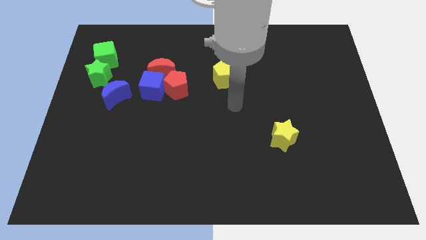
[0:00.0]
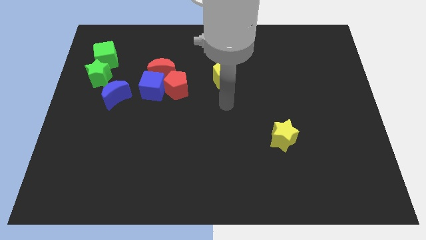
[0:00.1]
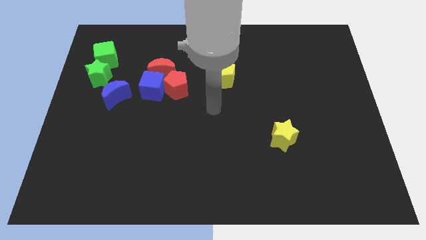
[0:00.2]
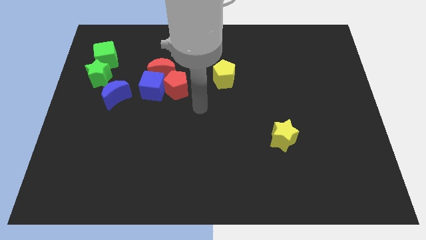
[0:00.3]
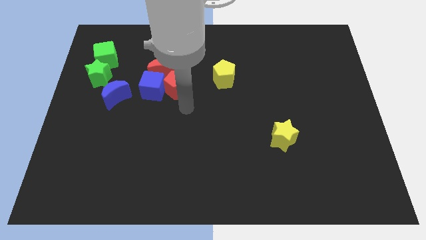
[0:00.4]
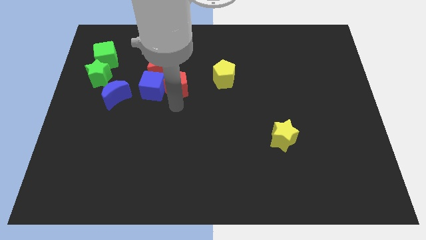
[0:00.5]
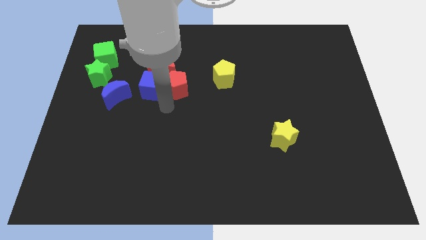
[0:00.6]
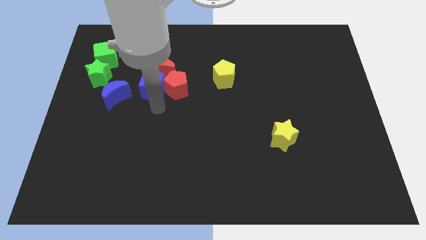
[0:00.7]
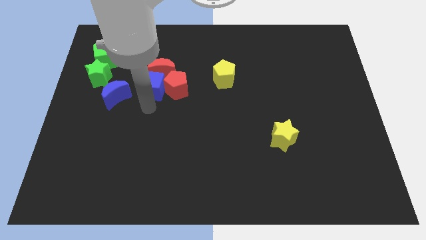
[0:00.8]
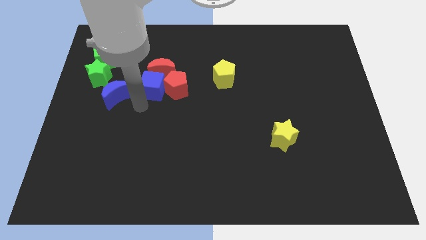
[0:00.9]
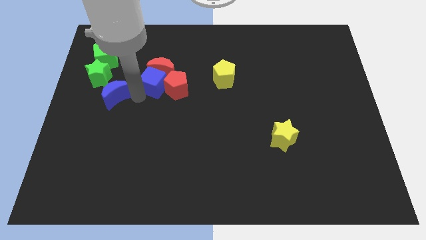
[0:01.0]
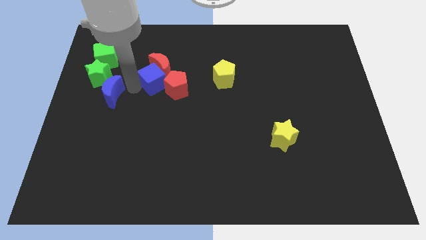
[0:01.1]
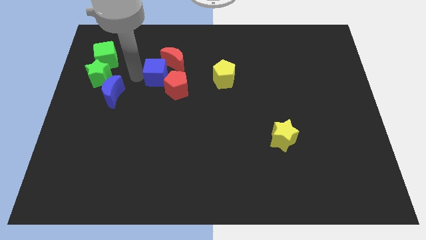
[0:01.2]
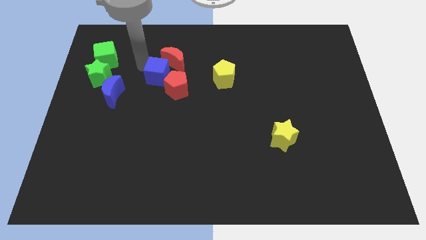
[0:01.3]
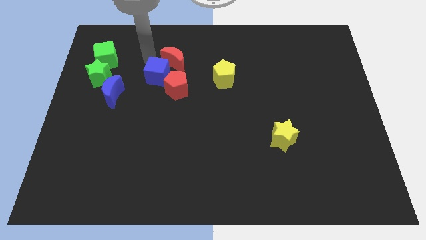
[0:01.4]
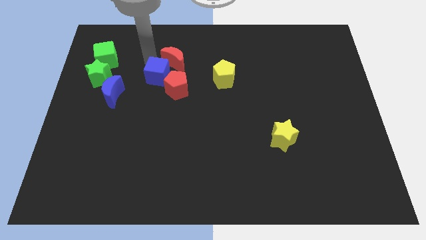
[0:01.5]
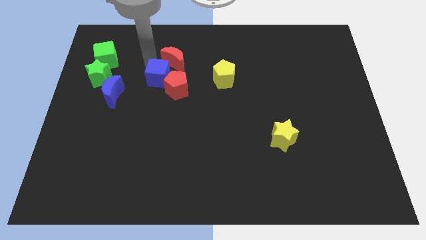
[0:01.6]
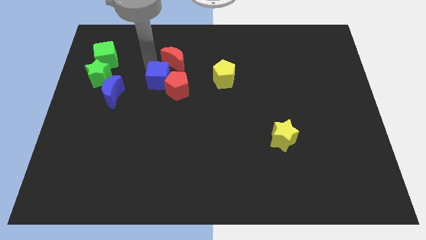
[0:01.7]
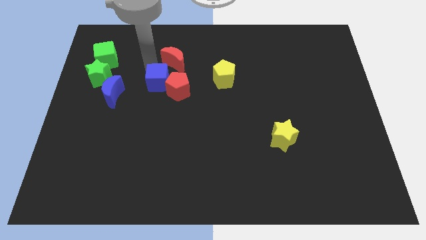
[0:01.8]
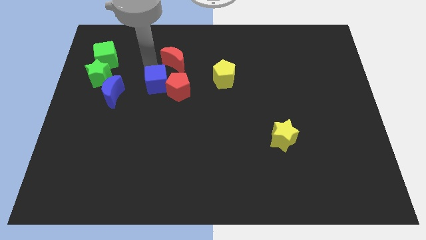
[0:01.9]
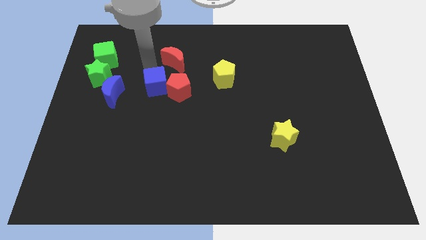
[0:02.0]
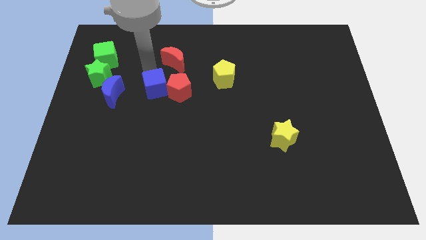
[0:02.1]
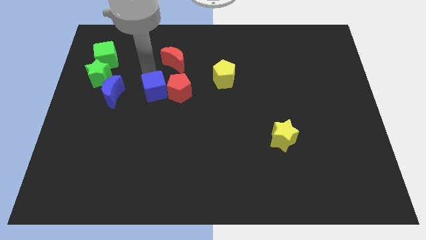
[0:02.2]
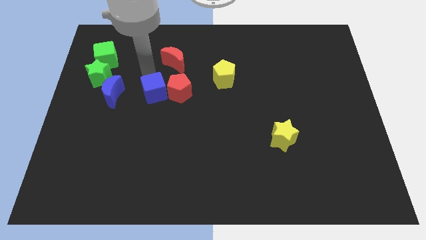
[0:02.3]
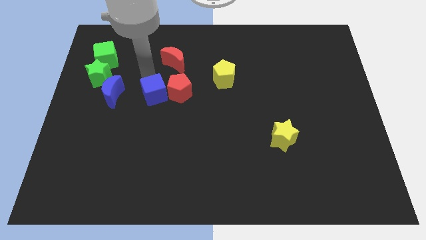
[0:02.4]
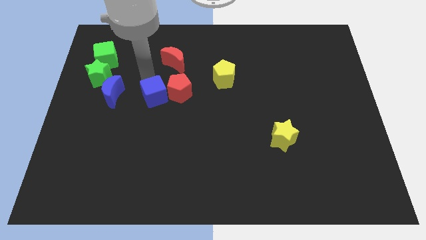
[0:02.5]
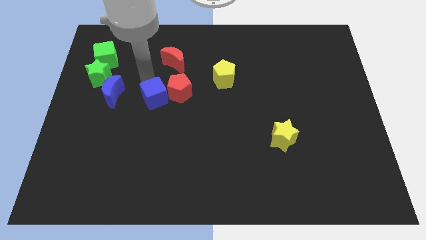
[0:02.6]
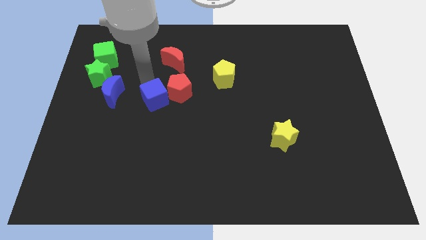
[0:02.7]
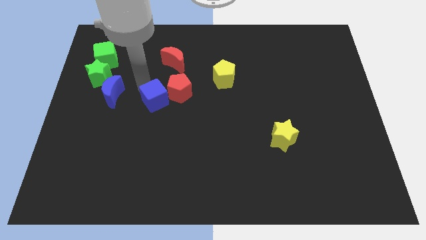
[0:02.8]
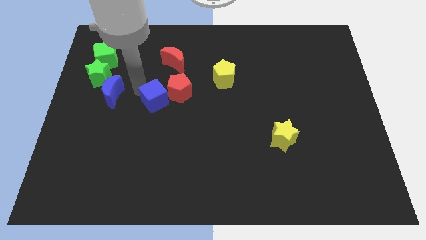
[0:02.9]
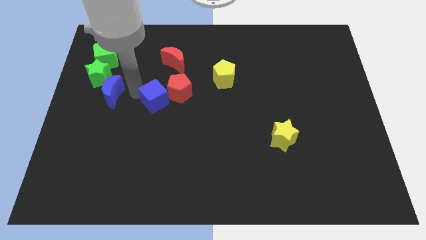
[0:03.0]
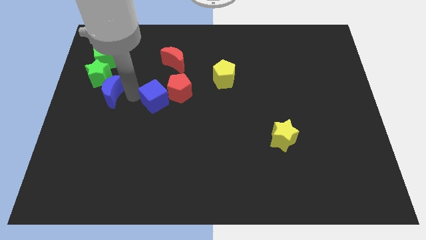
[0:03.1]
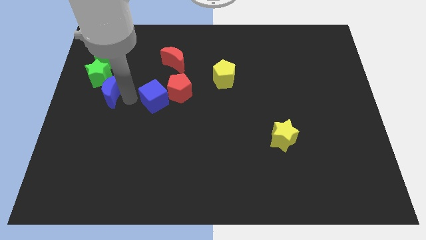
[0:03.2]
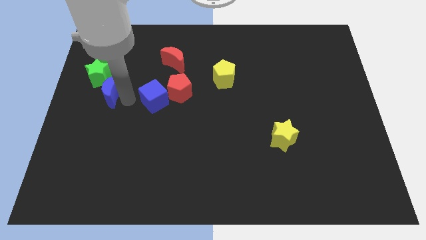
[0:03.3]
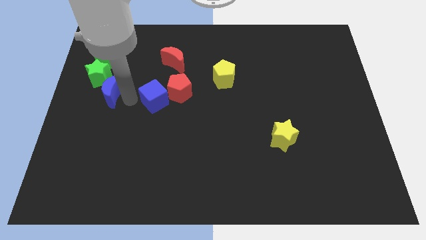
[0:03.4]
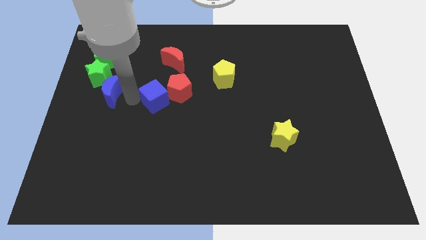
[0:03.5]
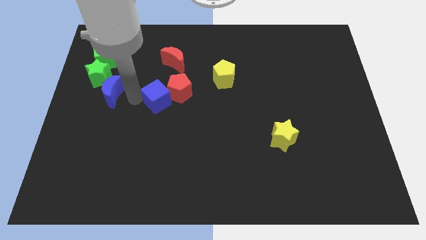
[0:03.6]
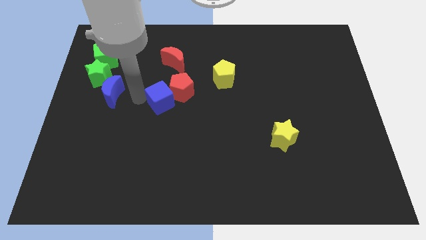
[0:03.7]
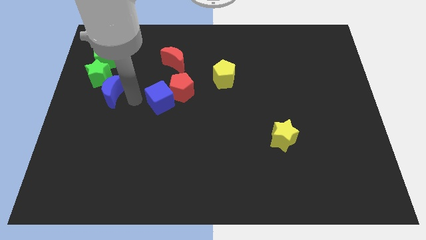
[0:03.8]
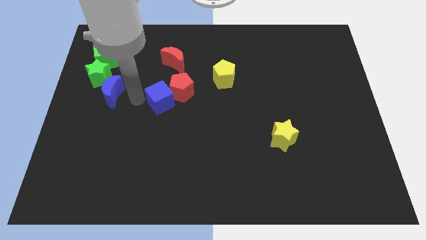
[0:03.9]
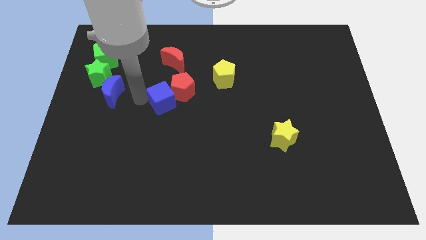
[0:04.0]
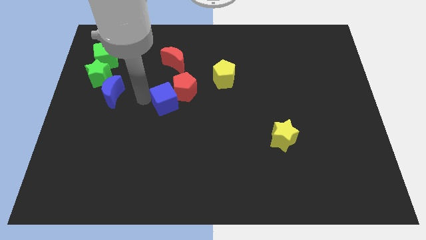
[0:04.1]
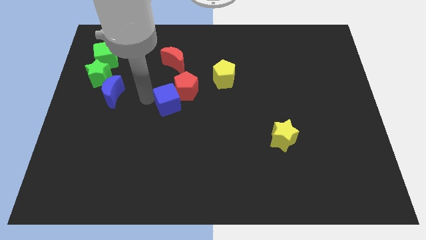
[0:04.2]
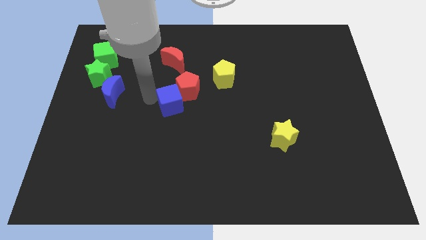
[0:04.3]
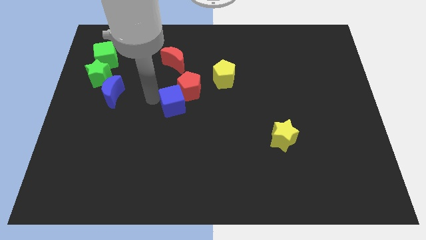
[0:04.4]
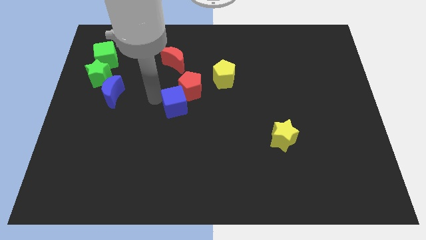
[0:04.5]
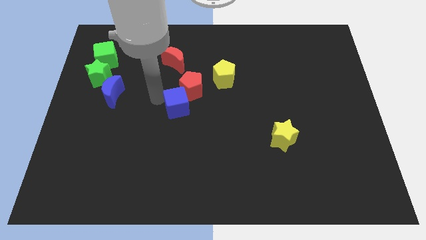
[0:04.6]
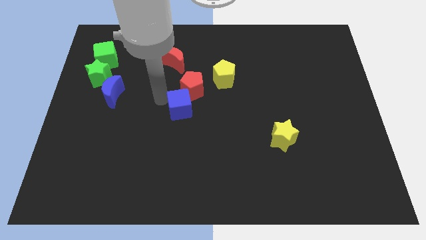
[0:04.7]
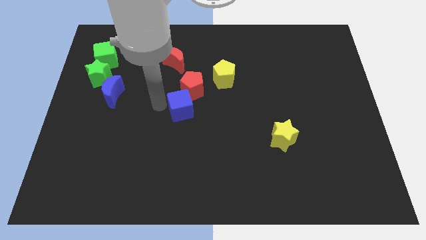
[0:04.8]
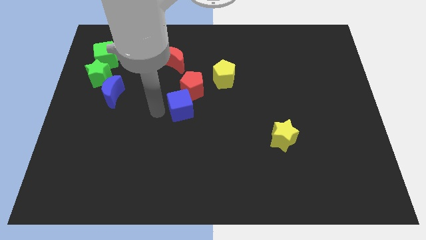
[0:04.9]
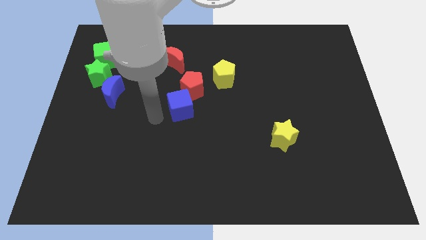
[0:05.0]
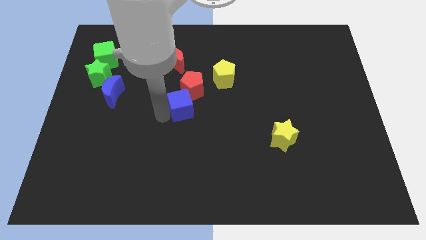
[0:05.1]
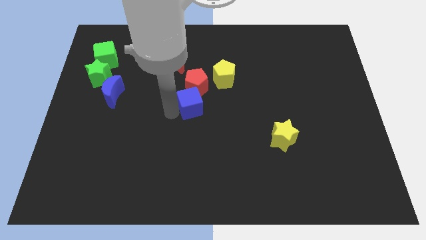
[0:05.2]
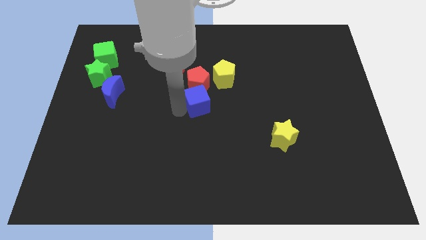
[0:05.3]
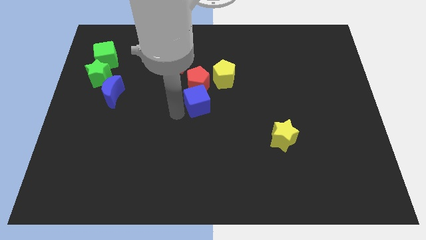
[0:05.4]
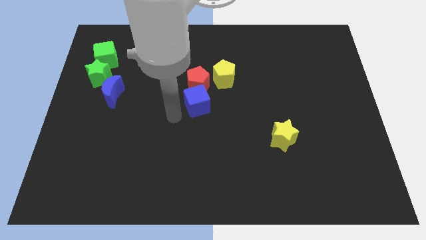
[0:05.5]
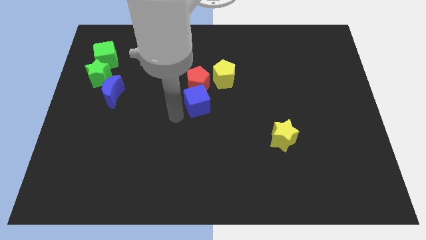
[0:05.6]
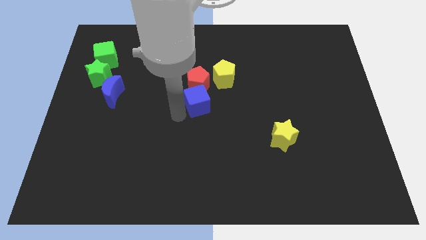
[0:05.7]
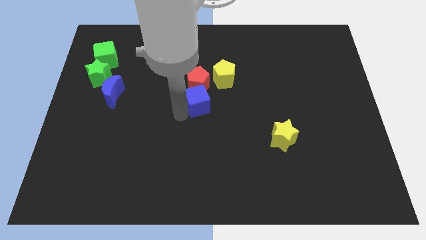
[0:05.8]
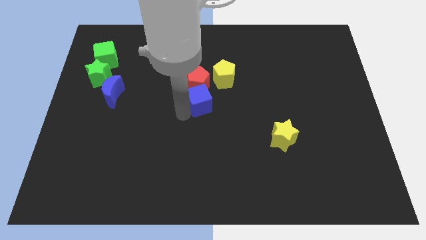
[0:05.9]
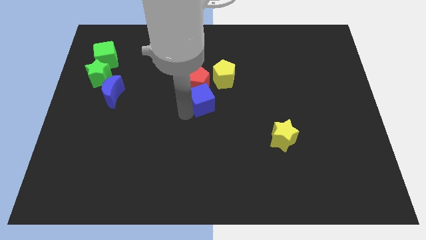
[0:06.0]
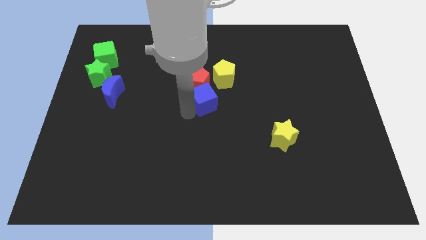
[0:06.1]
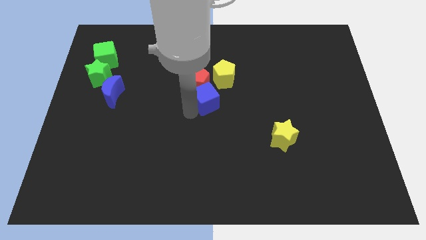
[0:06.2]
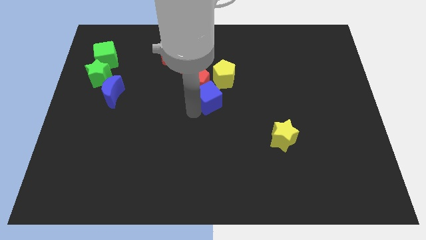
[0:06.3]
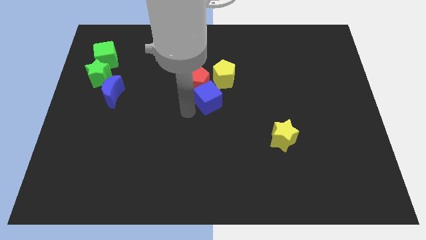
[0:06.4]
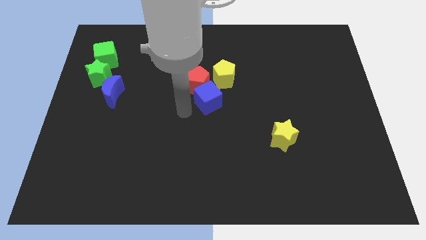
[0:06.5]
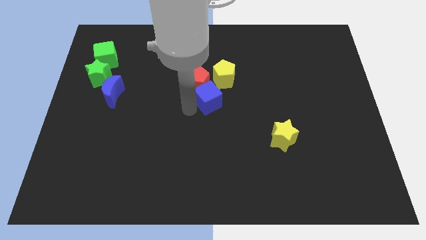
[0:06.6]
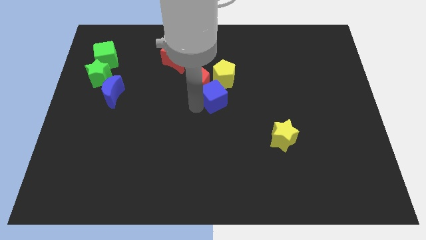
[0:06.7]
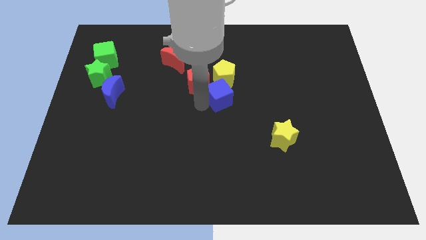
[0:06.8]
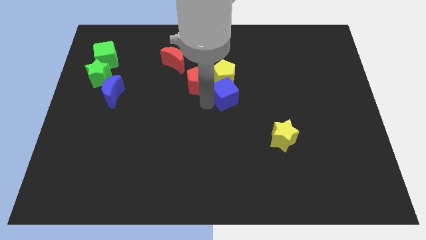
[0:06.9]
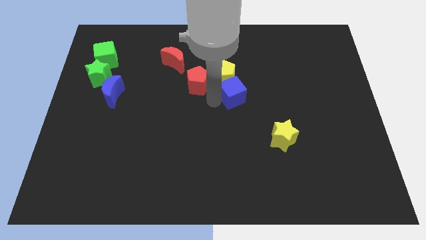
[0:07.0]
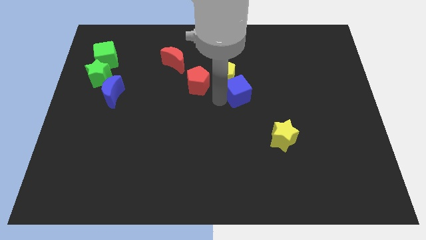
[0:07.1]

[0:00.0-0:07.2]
push the blue cube right

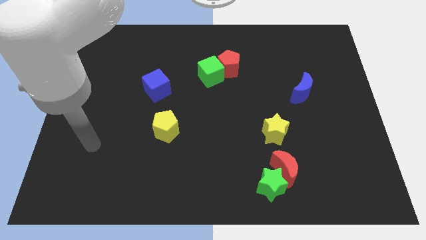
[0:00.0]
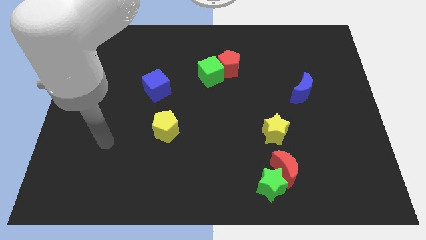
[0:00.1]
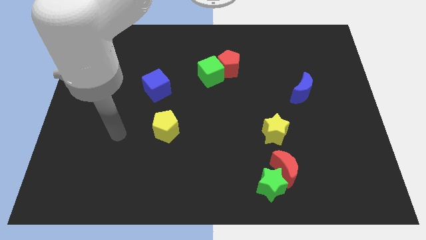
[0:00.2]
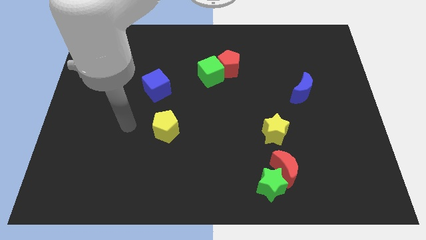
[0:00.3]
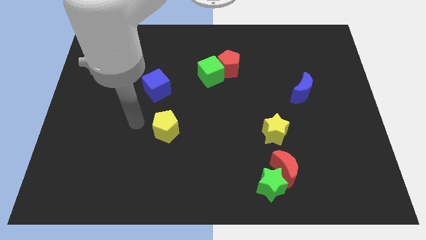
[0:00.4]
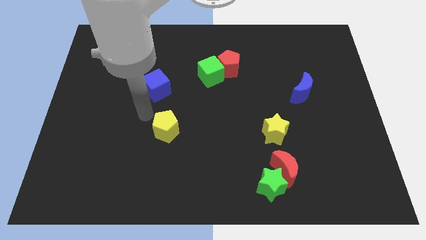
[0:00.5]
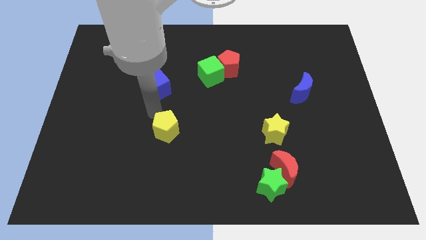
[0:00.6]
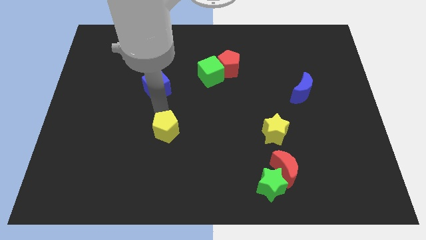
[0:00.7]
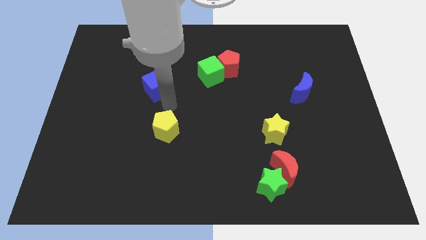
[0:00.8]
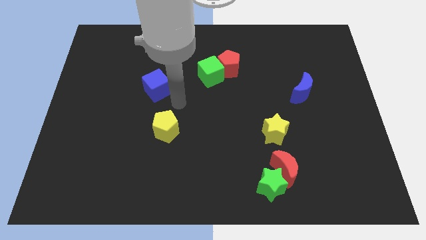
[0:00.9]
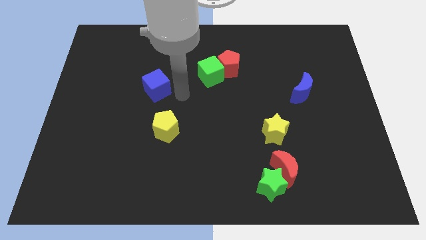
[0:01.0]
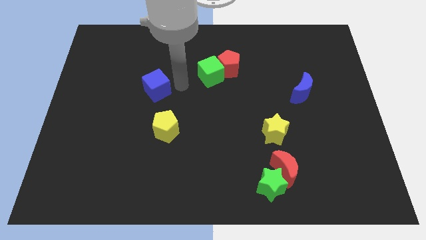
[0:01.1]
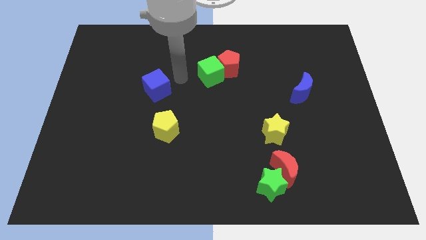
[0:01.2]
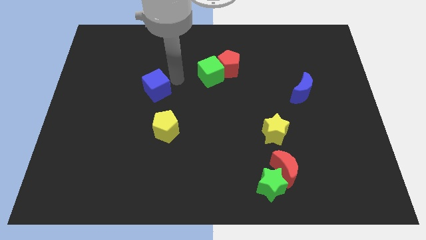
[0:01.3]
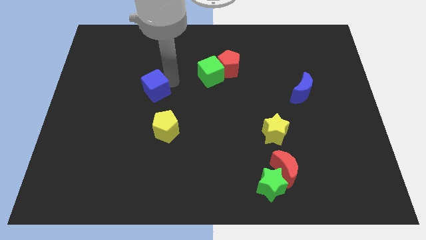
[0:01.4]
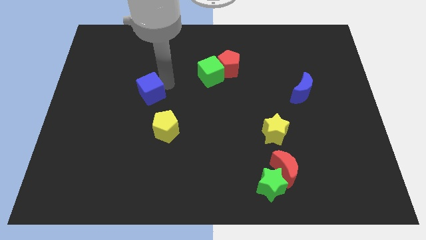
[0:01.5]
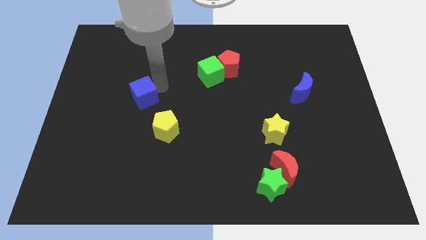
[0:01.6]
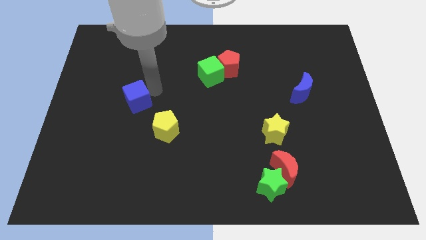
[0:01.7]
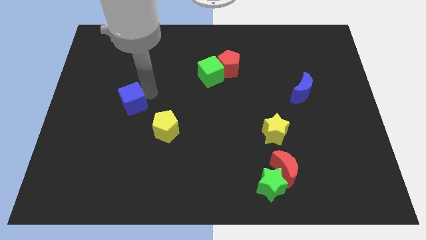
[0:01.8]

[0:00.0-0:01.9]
push the blue cube slightly diagonally down and left
